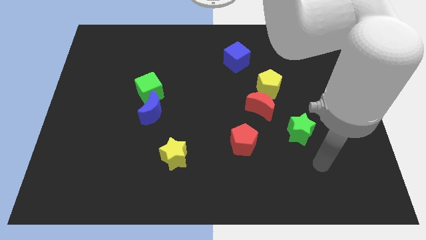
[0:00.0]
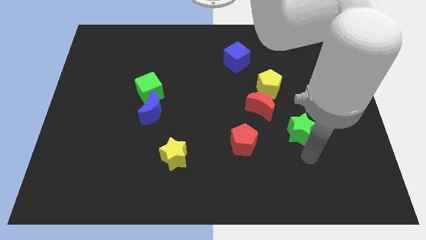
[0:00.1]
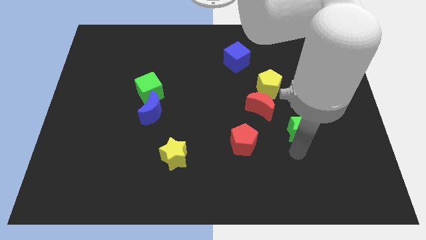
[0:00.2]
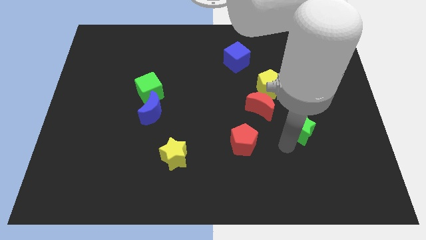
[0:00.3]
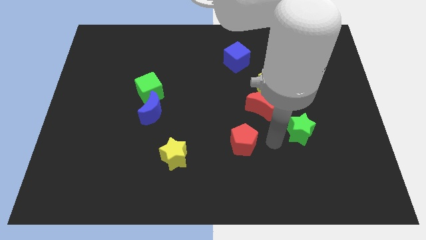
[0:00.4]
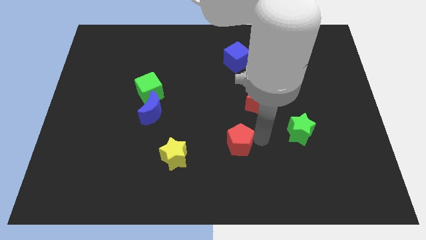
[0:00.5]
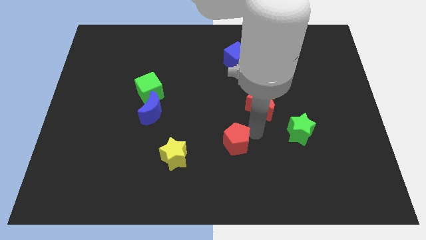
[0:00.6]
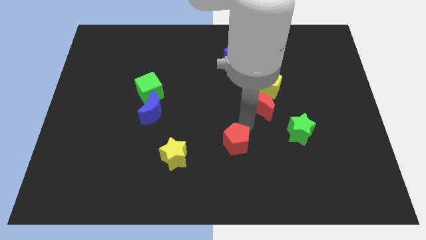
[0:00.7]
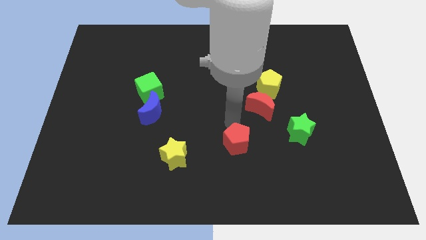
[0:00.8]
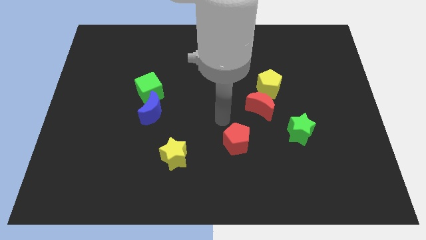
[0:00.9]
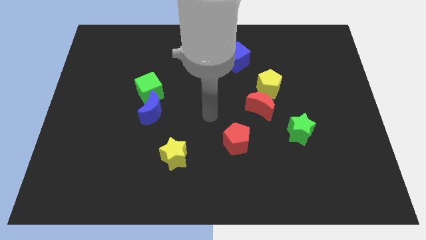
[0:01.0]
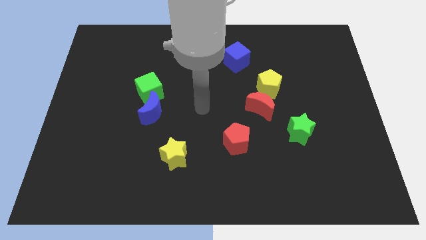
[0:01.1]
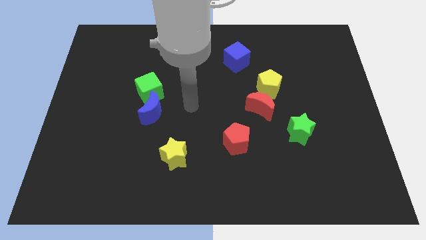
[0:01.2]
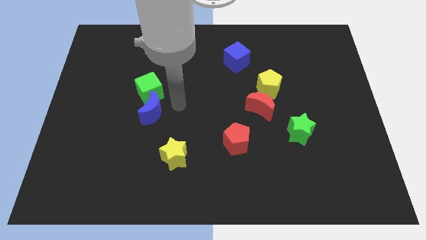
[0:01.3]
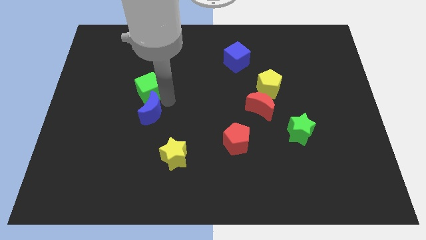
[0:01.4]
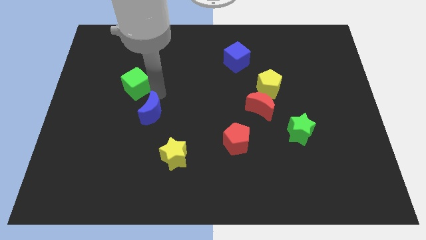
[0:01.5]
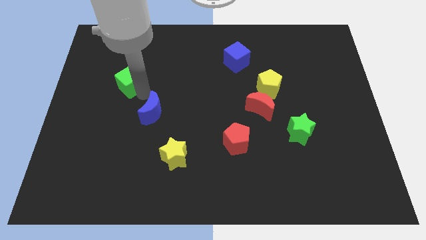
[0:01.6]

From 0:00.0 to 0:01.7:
separate the blue moon from the green cube

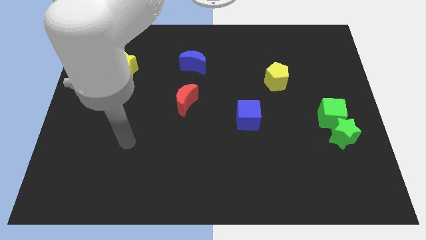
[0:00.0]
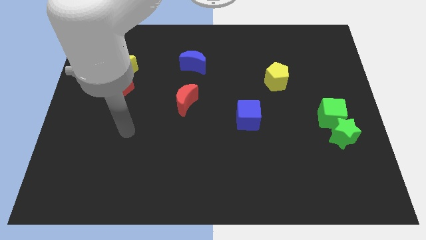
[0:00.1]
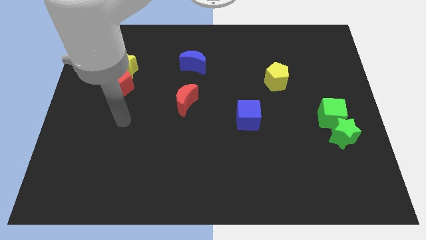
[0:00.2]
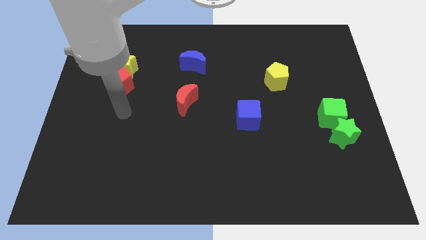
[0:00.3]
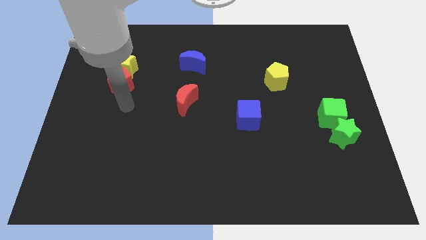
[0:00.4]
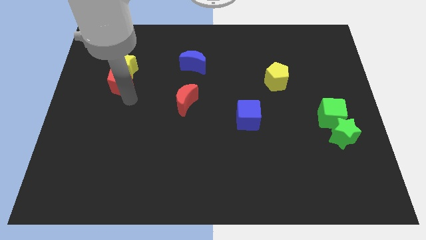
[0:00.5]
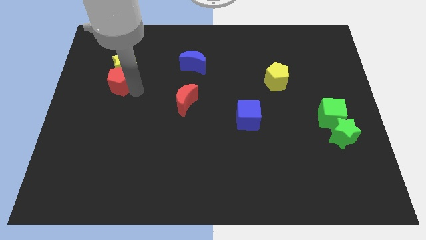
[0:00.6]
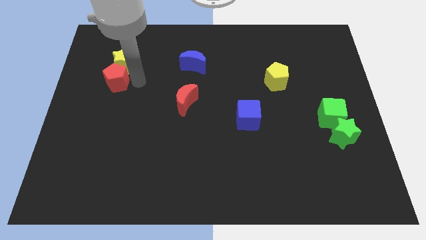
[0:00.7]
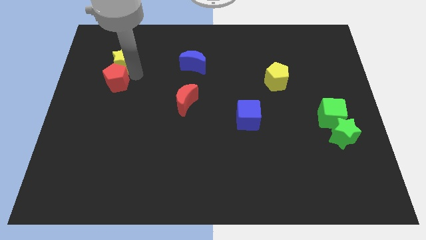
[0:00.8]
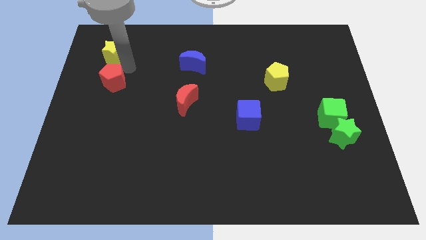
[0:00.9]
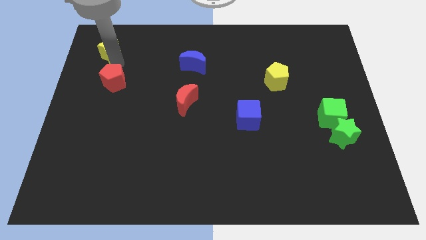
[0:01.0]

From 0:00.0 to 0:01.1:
pull the red pentagon apart from the yellow star

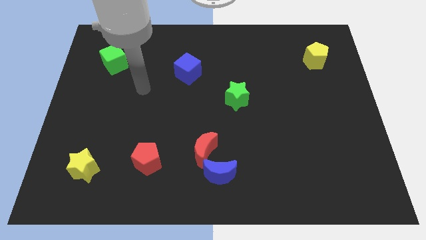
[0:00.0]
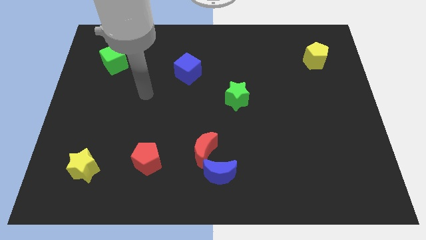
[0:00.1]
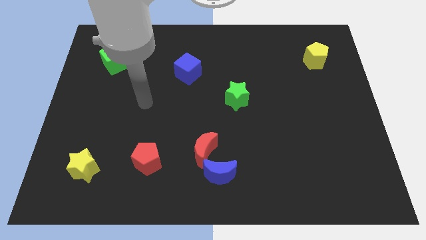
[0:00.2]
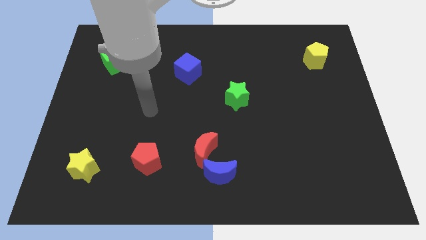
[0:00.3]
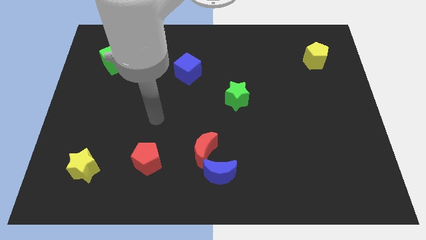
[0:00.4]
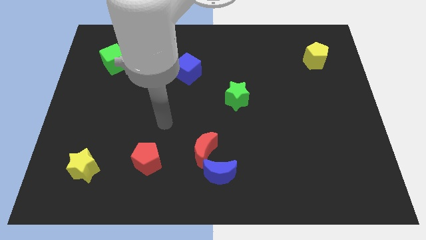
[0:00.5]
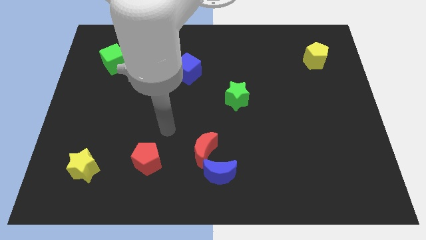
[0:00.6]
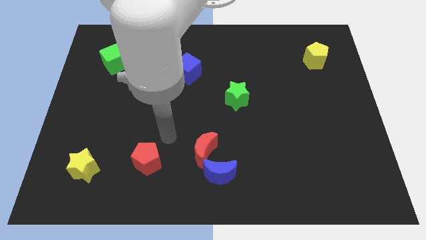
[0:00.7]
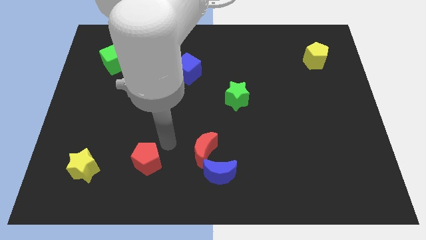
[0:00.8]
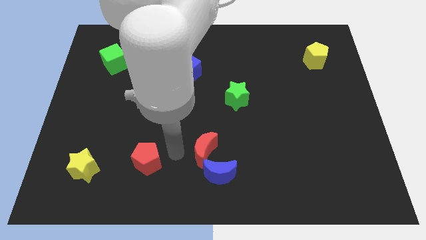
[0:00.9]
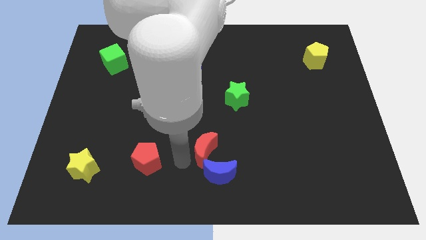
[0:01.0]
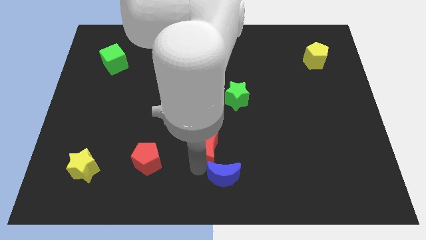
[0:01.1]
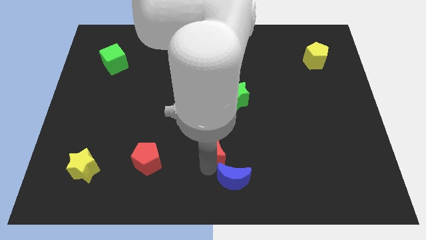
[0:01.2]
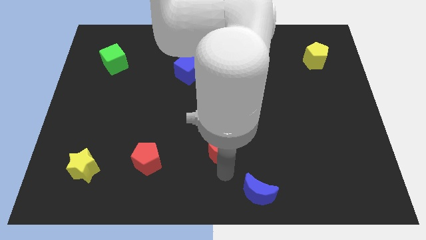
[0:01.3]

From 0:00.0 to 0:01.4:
move the red moon away from the blue moon

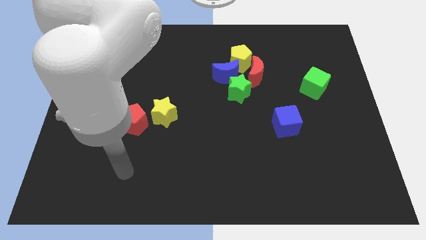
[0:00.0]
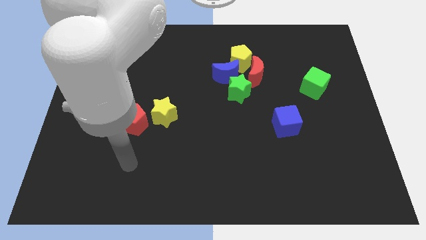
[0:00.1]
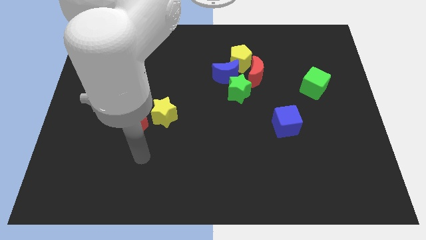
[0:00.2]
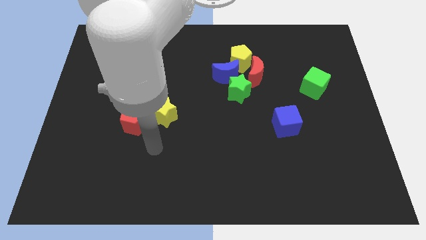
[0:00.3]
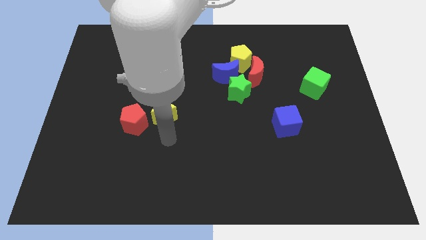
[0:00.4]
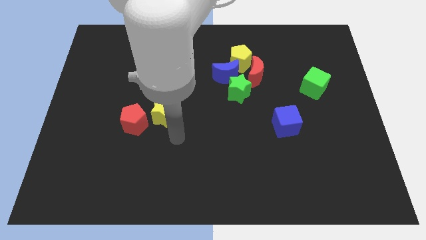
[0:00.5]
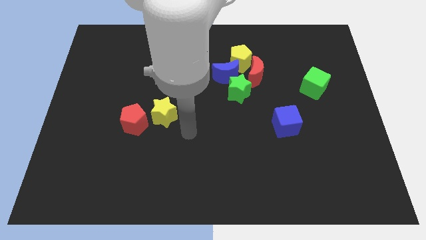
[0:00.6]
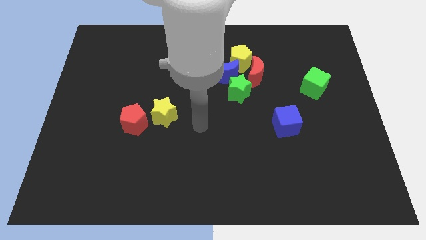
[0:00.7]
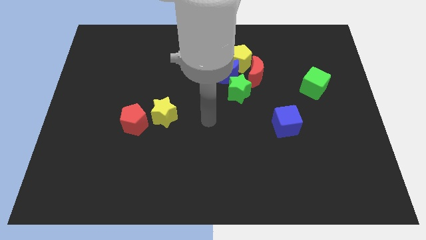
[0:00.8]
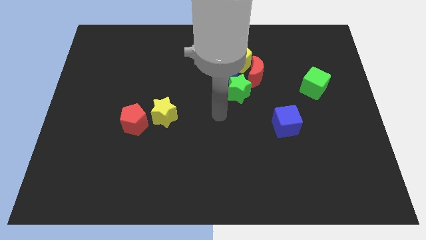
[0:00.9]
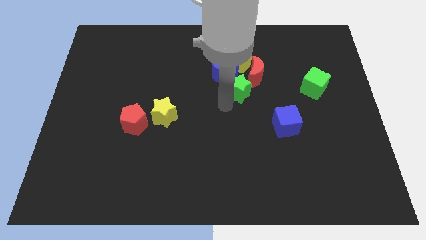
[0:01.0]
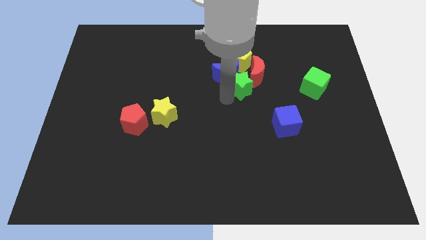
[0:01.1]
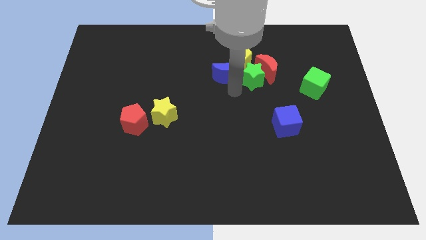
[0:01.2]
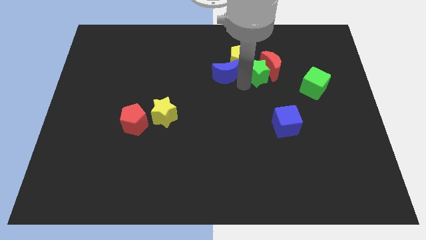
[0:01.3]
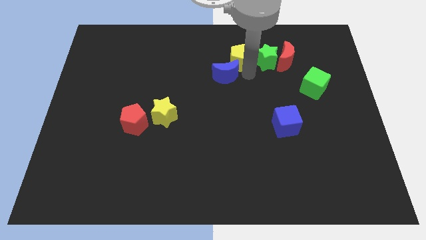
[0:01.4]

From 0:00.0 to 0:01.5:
separate the blue moon from the green star, yellow pentagon, and red moon

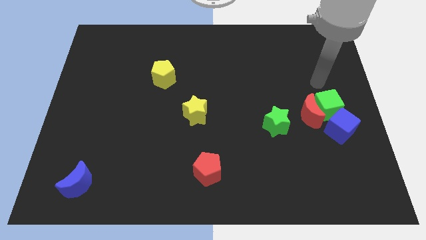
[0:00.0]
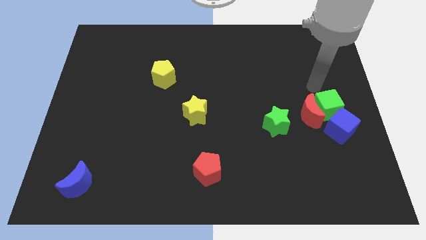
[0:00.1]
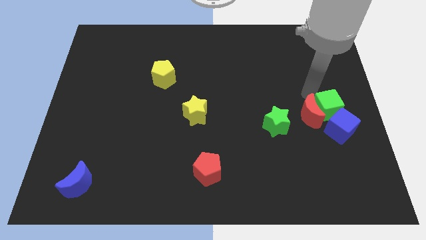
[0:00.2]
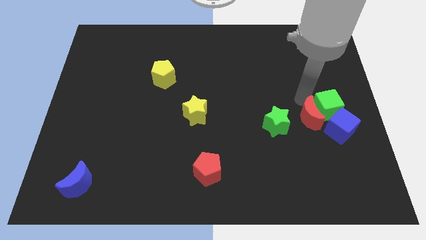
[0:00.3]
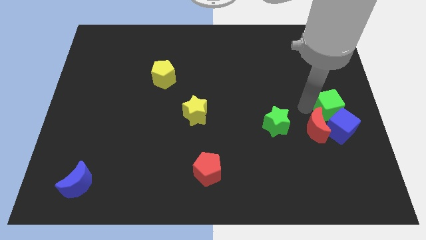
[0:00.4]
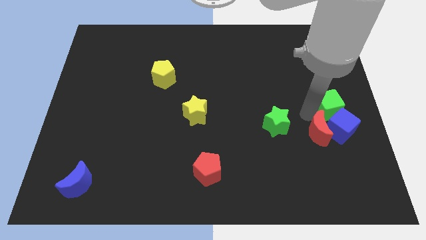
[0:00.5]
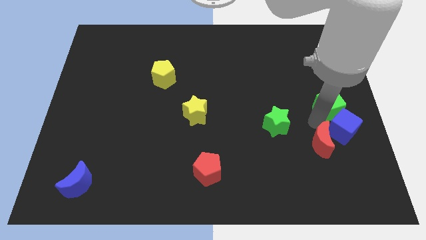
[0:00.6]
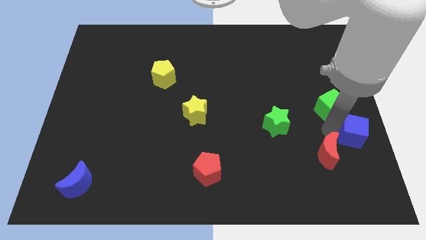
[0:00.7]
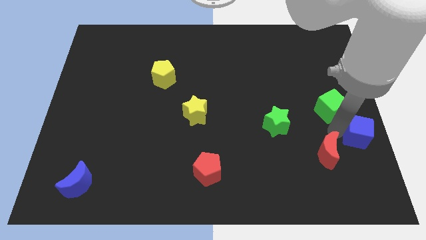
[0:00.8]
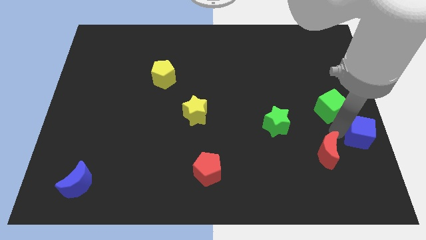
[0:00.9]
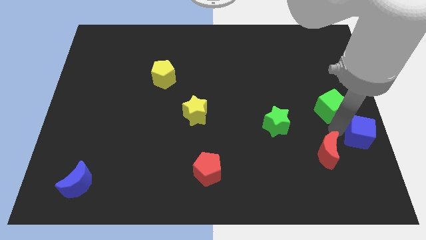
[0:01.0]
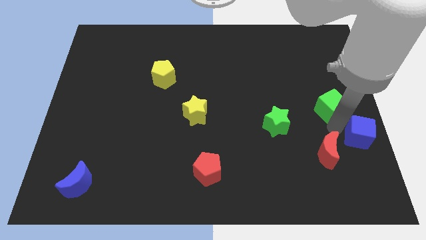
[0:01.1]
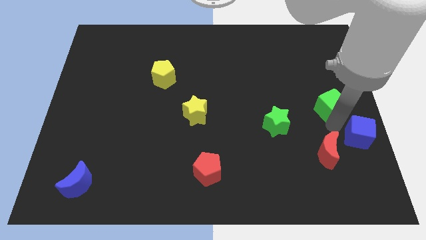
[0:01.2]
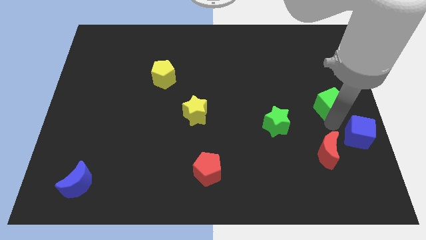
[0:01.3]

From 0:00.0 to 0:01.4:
separate the green cube from the red moon and blue cube

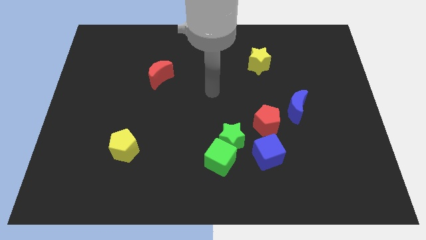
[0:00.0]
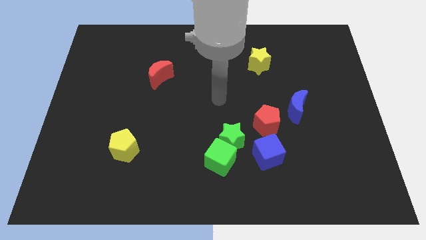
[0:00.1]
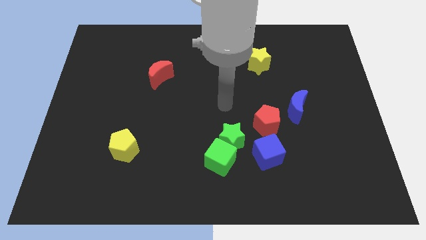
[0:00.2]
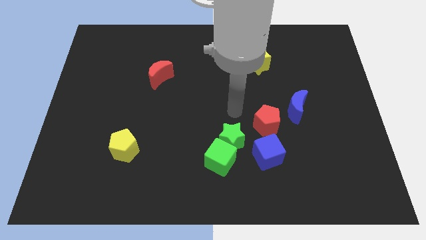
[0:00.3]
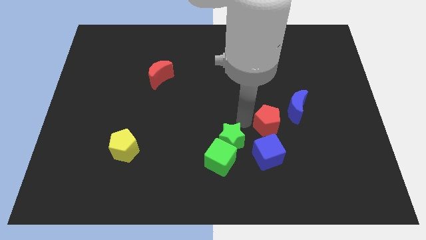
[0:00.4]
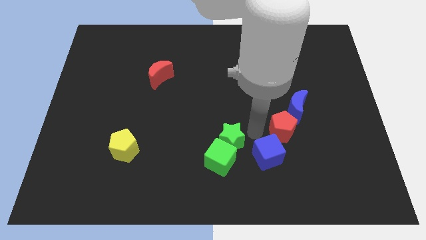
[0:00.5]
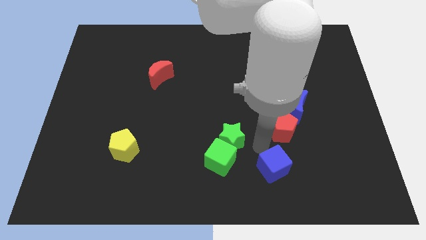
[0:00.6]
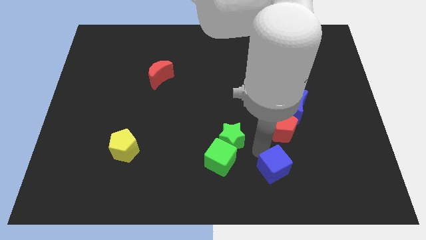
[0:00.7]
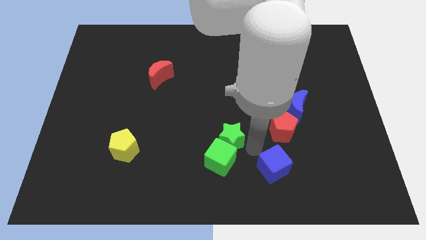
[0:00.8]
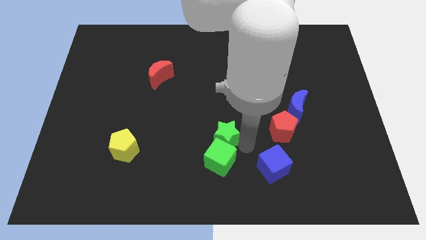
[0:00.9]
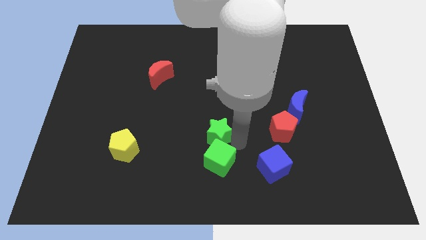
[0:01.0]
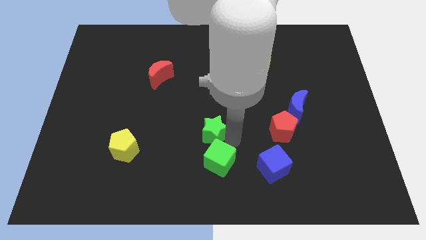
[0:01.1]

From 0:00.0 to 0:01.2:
move the green star away from the group of blocks

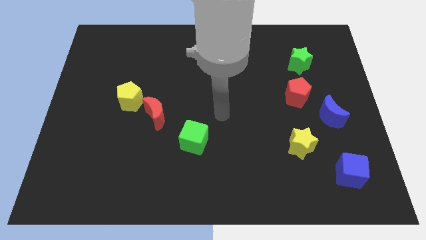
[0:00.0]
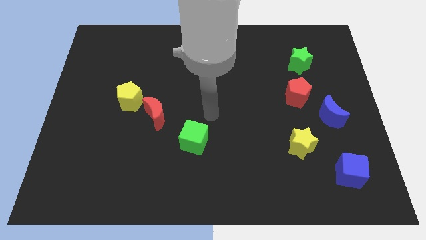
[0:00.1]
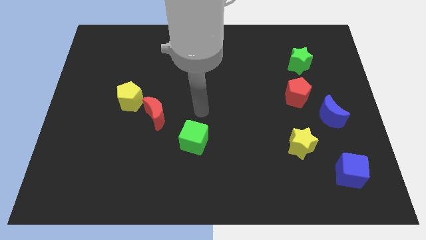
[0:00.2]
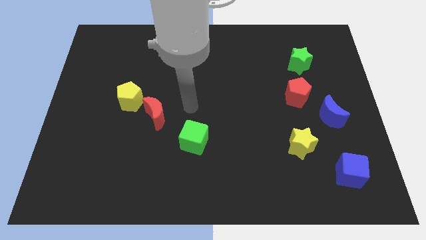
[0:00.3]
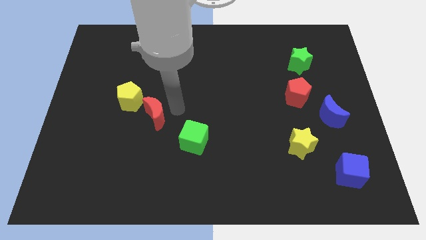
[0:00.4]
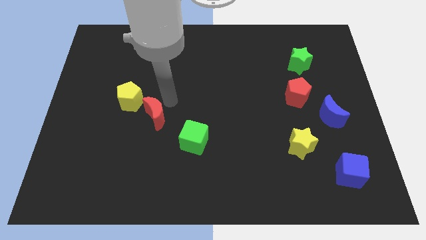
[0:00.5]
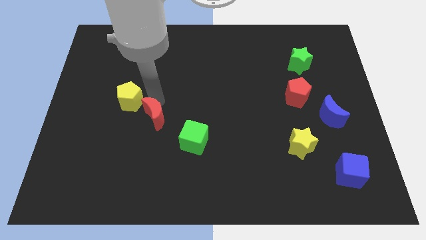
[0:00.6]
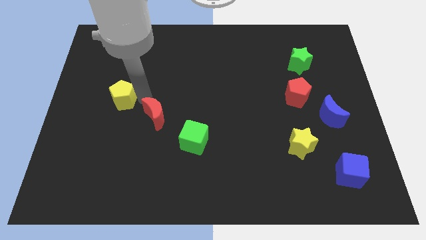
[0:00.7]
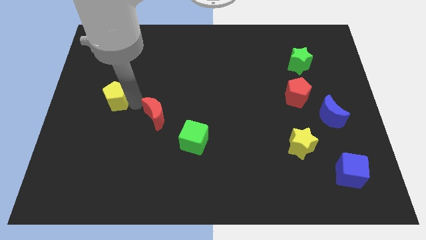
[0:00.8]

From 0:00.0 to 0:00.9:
move the red moon away from the yellow pentagon
